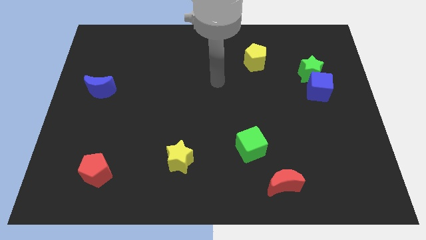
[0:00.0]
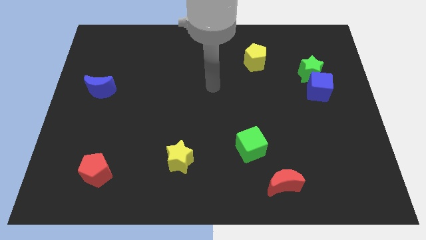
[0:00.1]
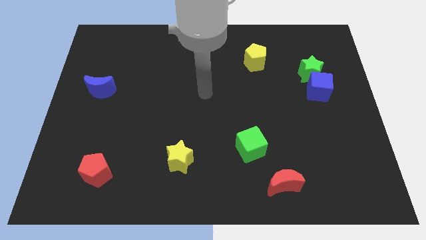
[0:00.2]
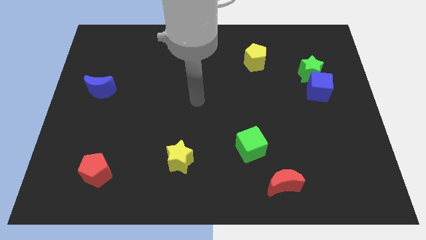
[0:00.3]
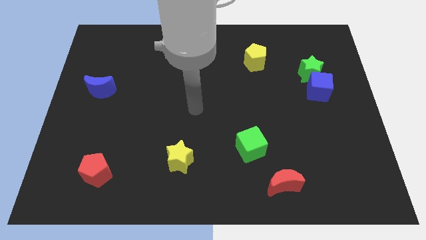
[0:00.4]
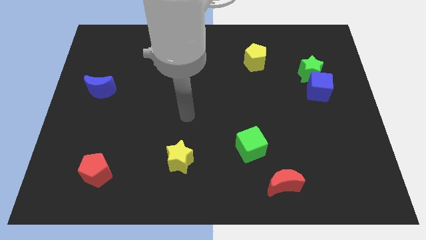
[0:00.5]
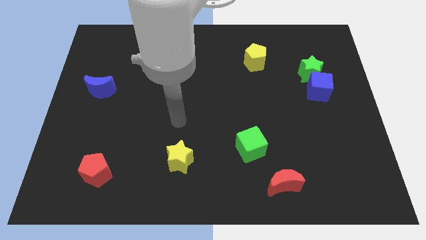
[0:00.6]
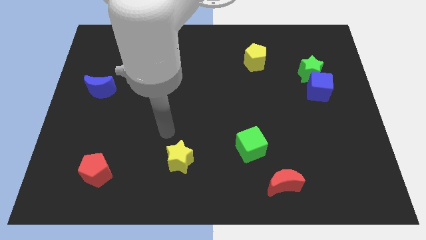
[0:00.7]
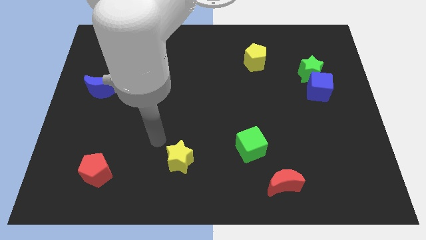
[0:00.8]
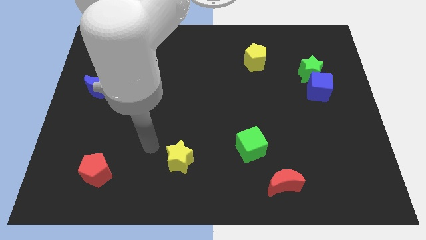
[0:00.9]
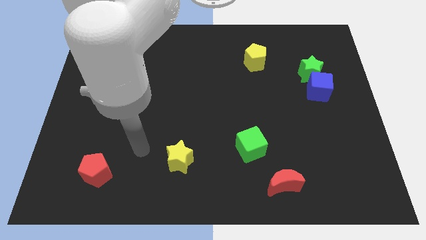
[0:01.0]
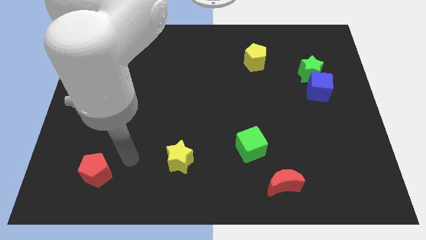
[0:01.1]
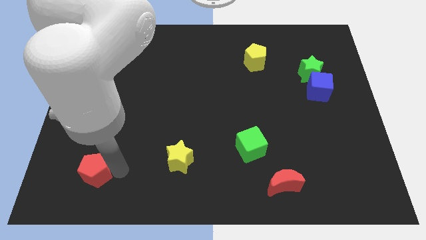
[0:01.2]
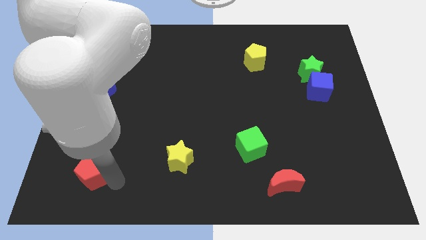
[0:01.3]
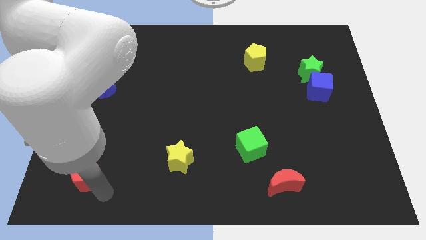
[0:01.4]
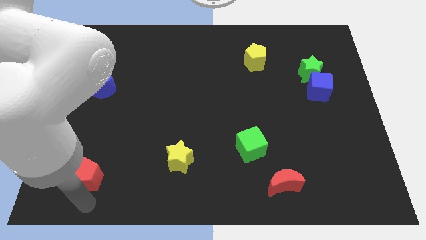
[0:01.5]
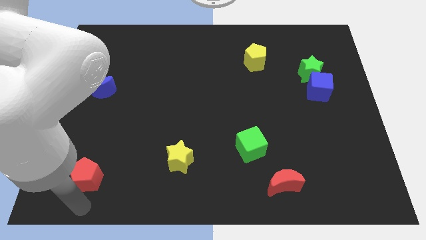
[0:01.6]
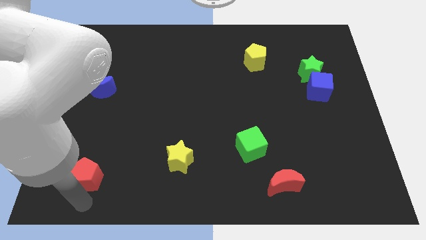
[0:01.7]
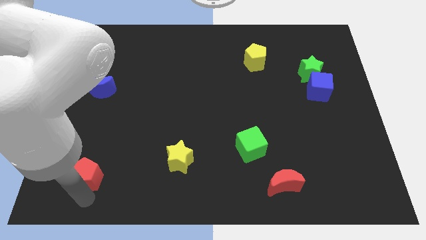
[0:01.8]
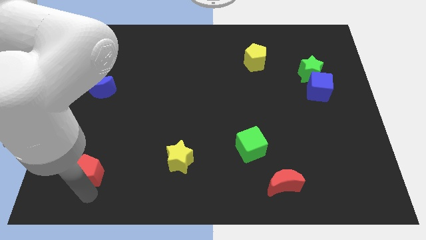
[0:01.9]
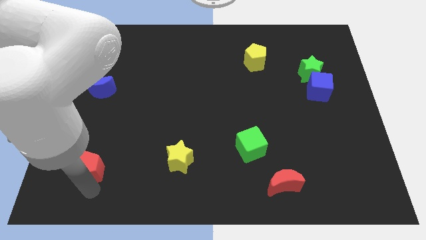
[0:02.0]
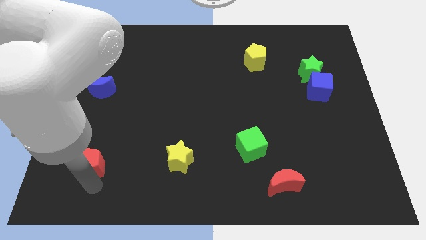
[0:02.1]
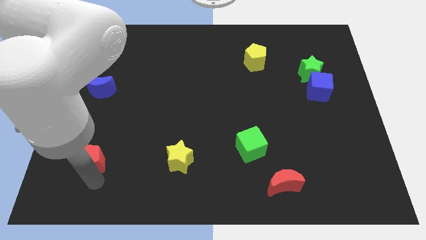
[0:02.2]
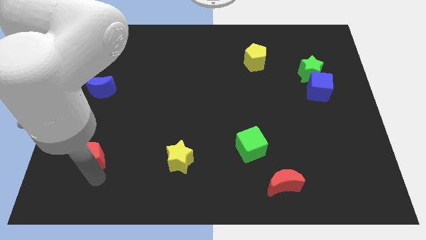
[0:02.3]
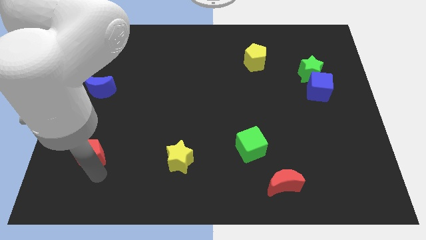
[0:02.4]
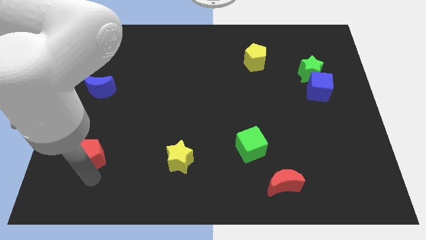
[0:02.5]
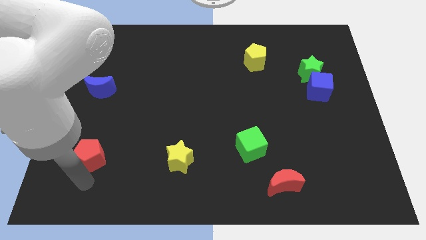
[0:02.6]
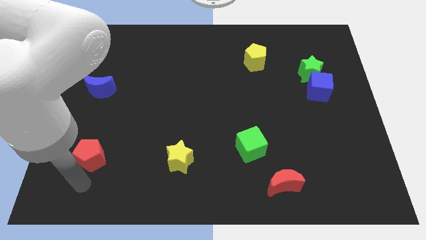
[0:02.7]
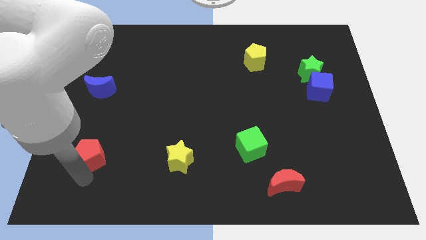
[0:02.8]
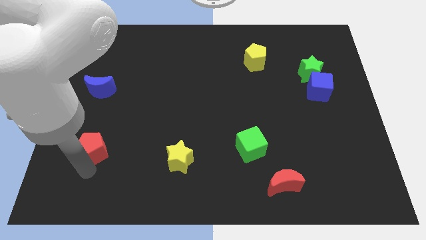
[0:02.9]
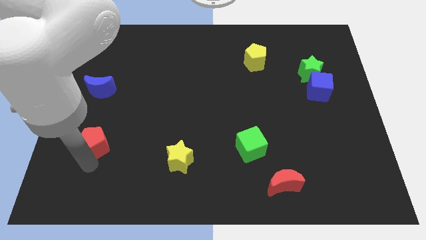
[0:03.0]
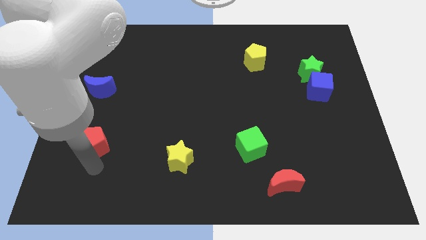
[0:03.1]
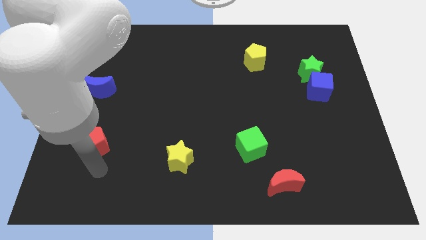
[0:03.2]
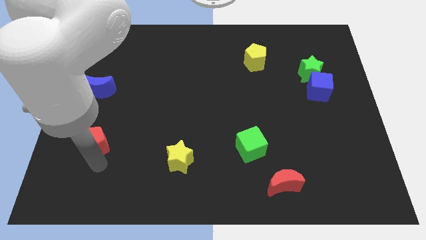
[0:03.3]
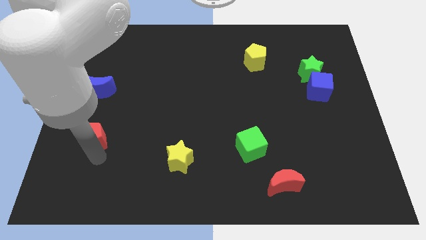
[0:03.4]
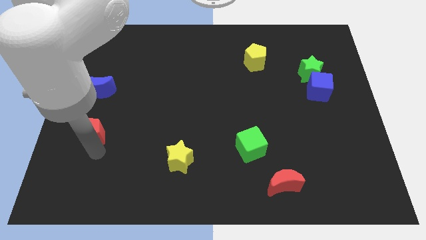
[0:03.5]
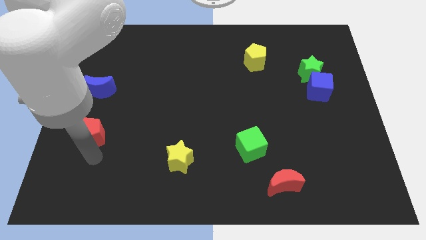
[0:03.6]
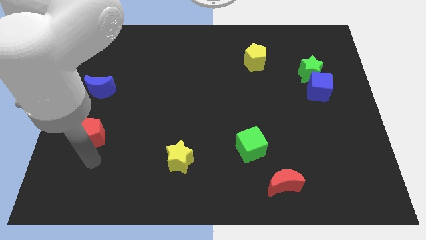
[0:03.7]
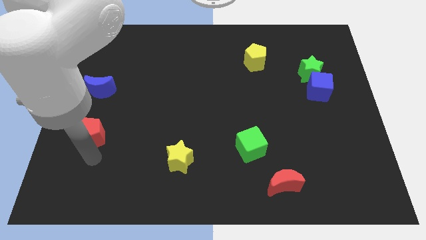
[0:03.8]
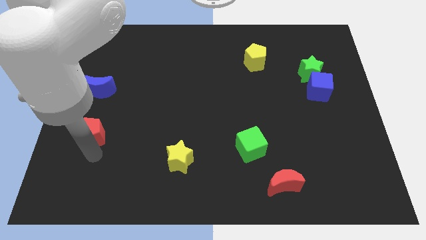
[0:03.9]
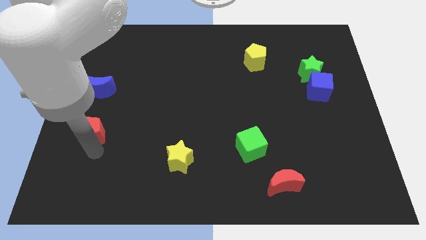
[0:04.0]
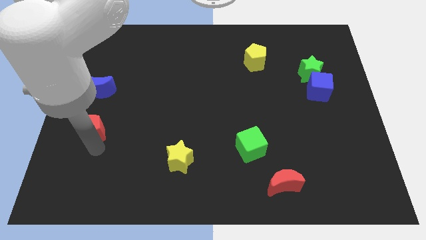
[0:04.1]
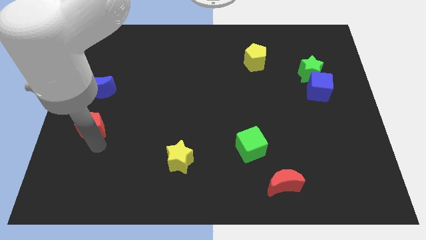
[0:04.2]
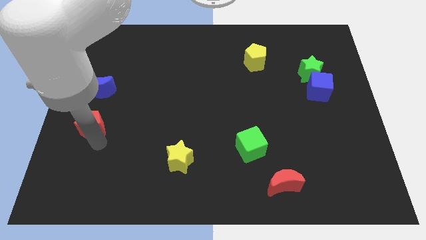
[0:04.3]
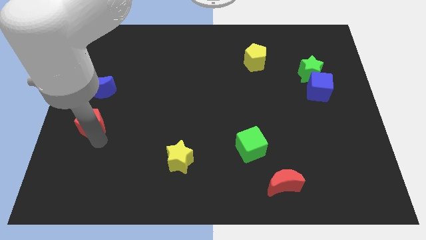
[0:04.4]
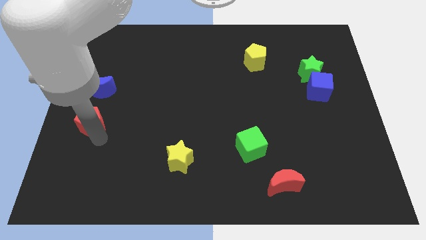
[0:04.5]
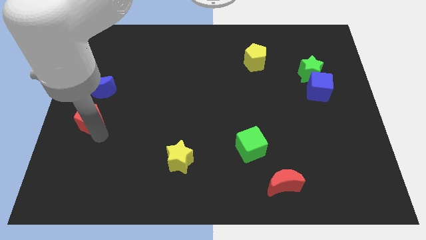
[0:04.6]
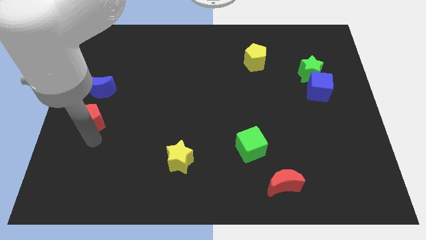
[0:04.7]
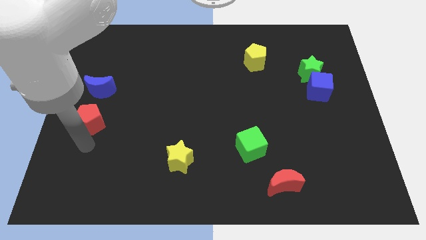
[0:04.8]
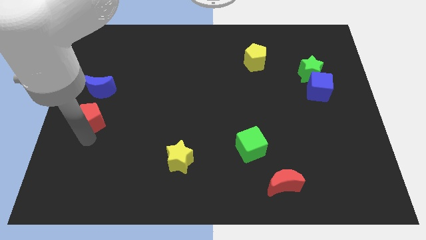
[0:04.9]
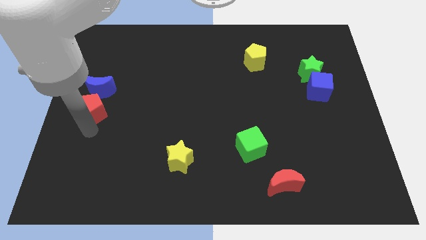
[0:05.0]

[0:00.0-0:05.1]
push the red pentagon to the blue moon

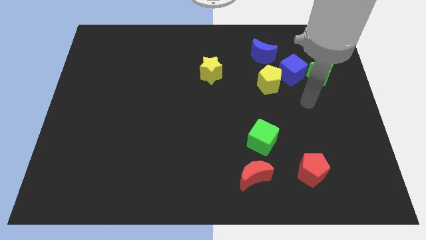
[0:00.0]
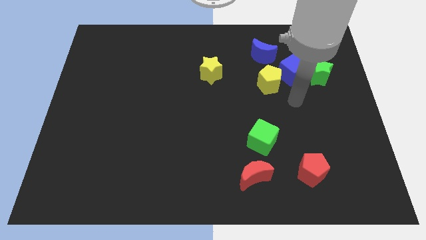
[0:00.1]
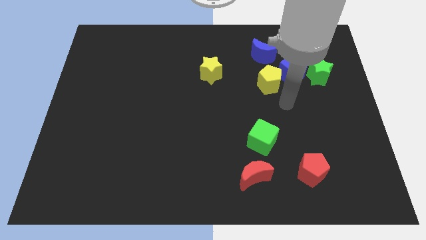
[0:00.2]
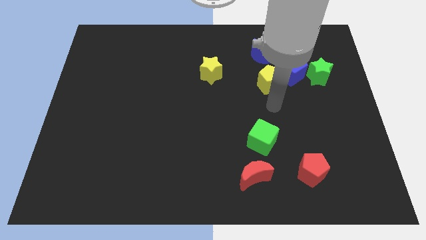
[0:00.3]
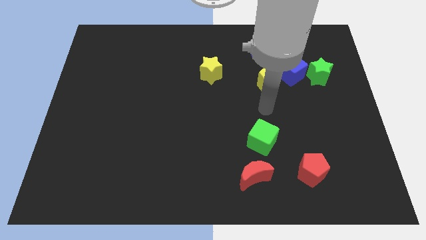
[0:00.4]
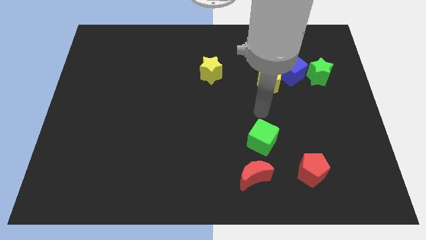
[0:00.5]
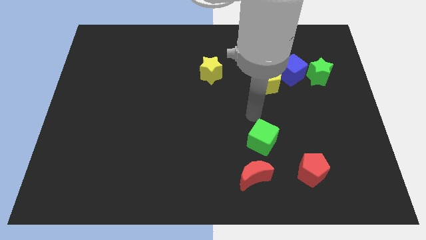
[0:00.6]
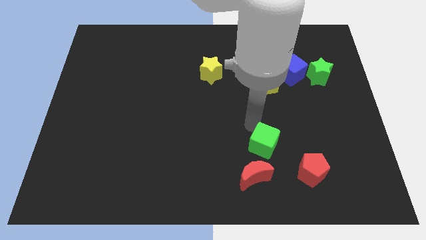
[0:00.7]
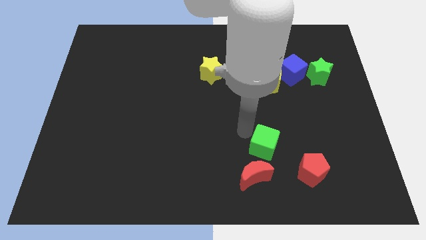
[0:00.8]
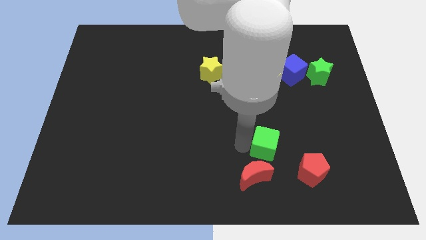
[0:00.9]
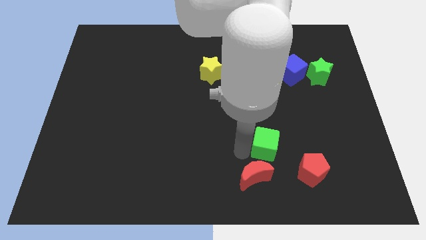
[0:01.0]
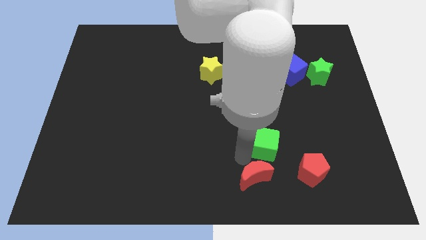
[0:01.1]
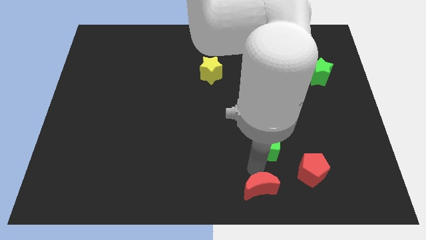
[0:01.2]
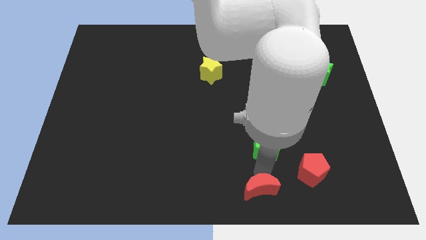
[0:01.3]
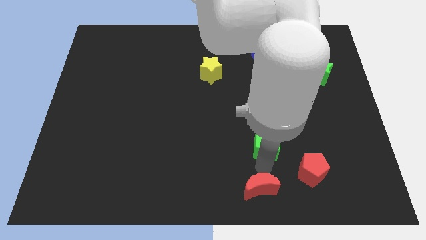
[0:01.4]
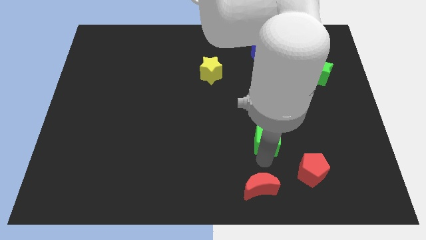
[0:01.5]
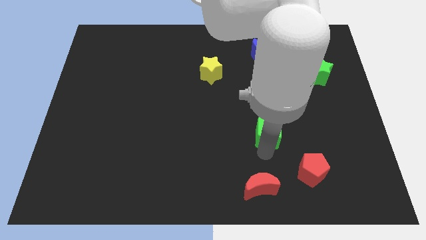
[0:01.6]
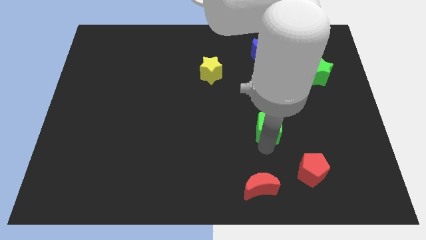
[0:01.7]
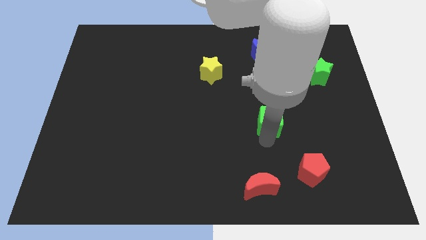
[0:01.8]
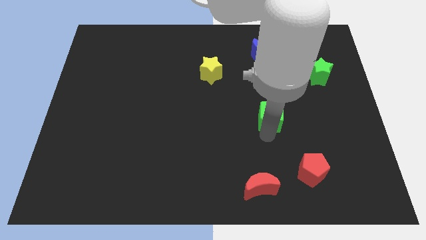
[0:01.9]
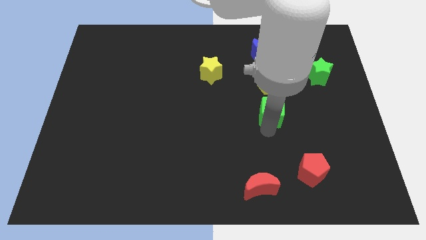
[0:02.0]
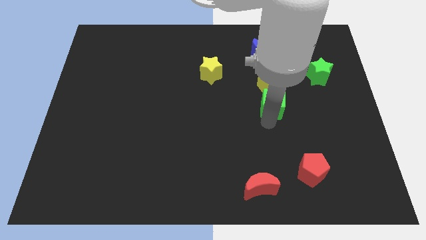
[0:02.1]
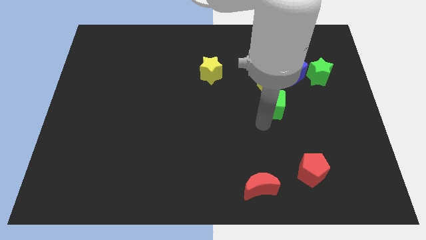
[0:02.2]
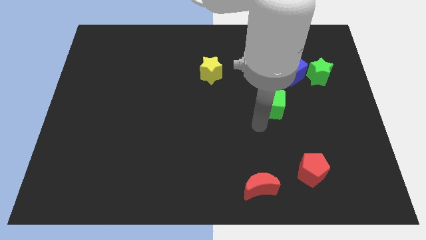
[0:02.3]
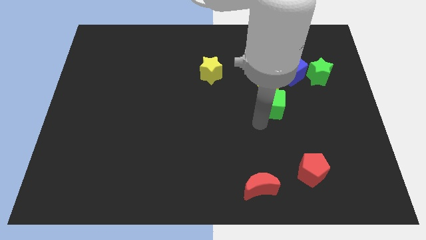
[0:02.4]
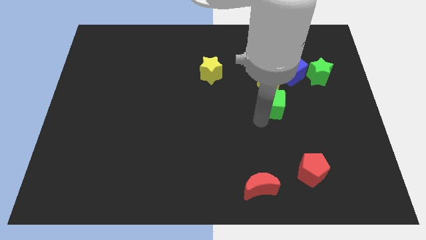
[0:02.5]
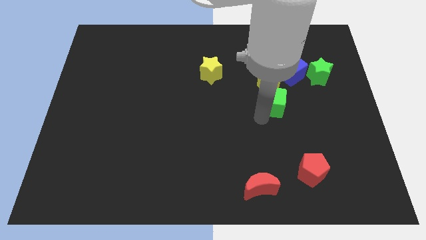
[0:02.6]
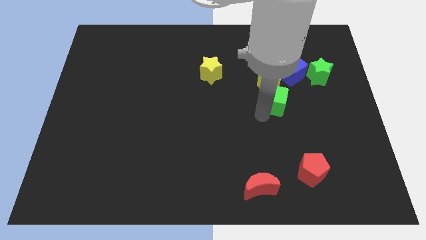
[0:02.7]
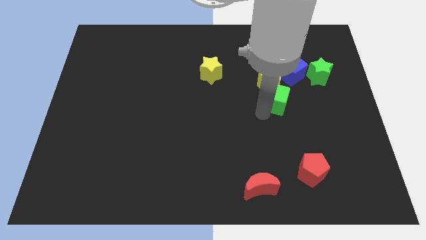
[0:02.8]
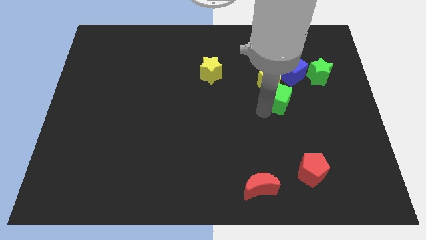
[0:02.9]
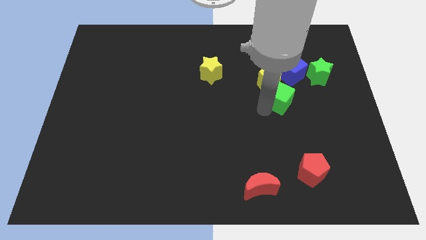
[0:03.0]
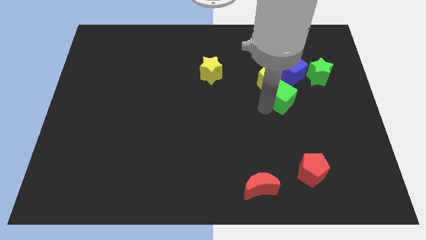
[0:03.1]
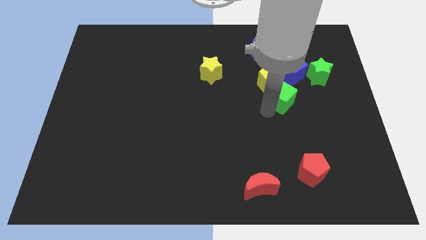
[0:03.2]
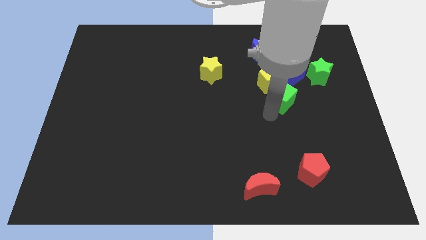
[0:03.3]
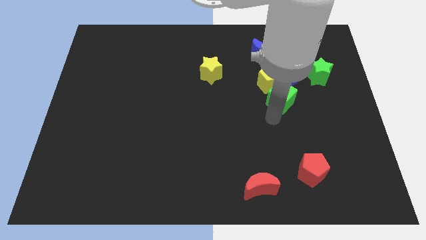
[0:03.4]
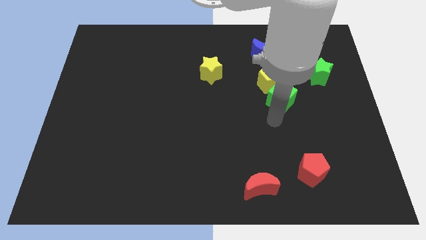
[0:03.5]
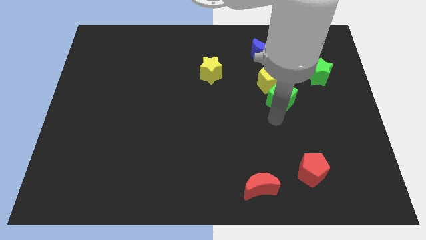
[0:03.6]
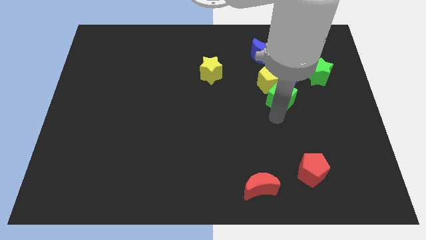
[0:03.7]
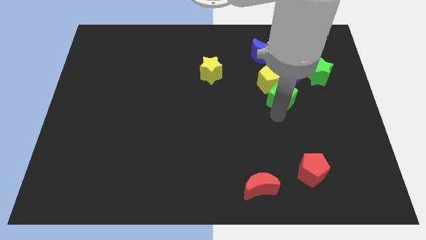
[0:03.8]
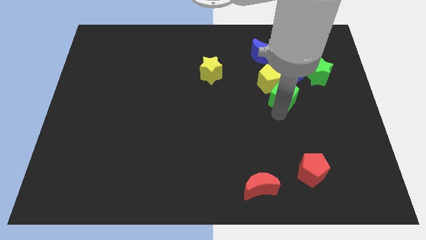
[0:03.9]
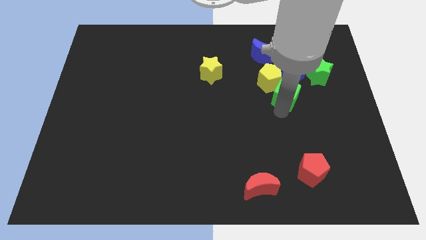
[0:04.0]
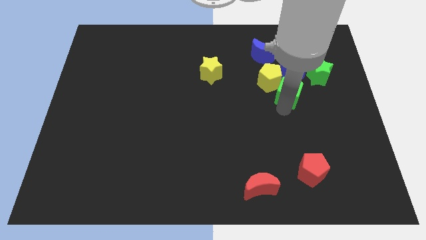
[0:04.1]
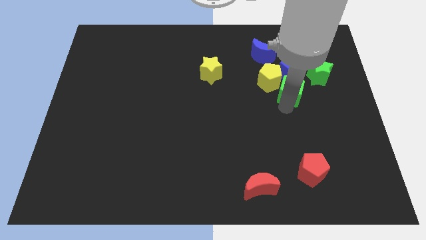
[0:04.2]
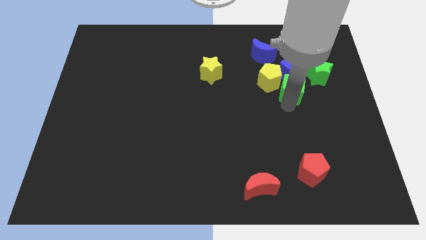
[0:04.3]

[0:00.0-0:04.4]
push the green cube next to the blue cube
